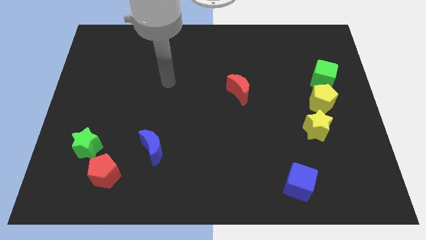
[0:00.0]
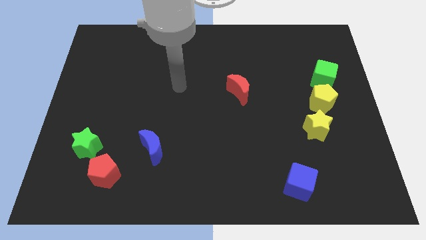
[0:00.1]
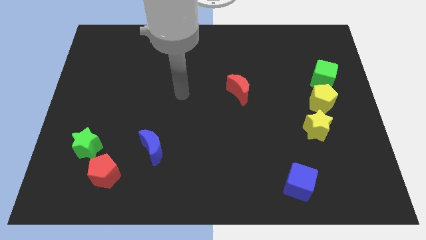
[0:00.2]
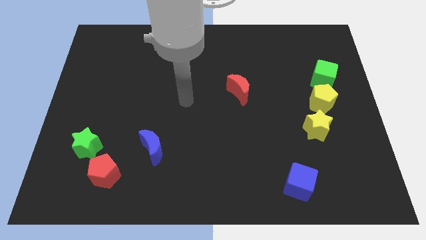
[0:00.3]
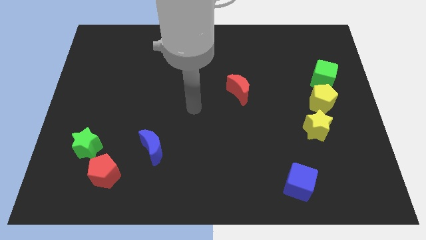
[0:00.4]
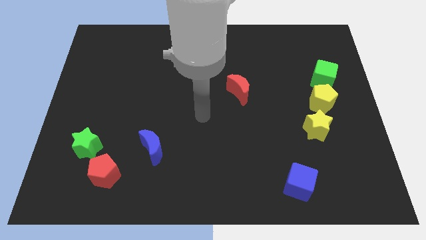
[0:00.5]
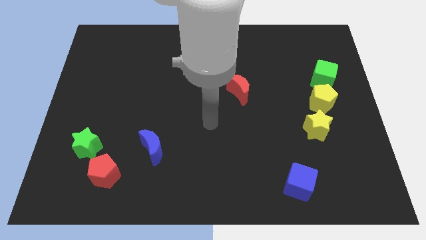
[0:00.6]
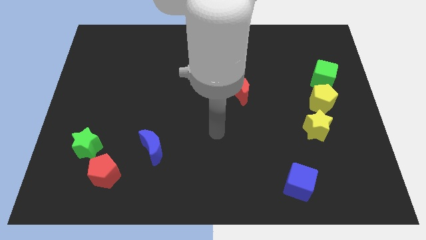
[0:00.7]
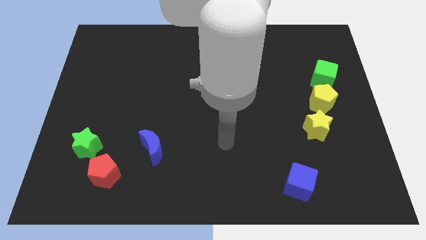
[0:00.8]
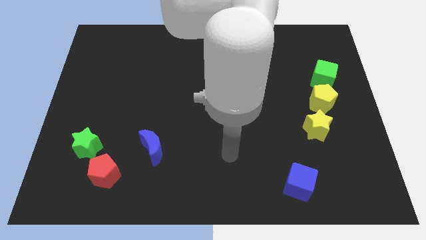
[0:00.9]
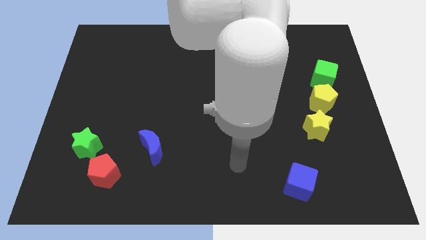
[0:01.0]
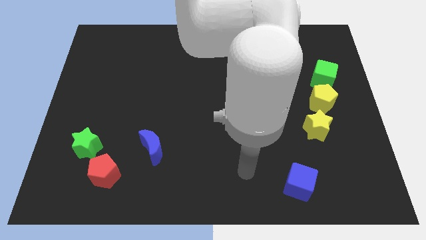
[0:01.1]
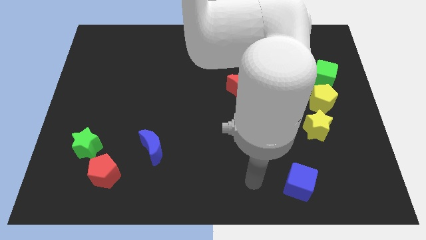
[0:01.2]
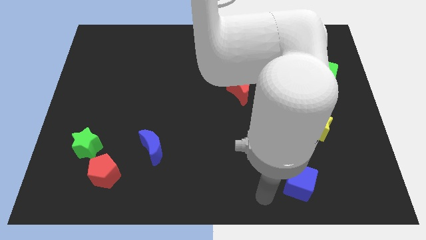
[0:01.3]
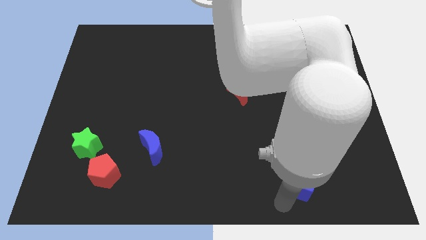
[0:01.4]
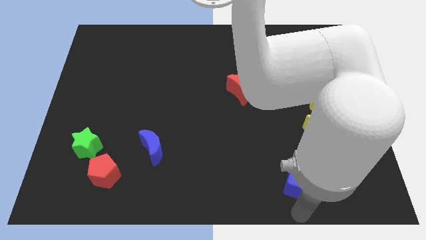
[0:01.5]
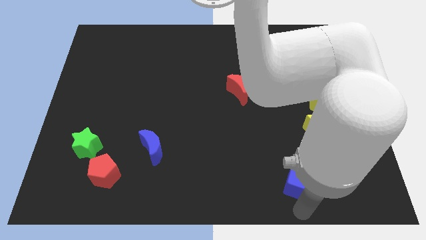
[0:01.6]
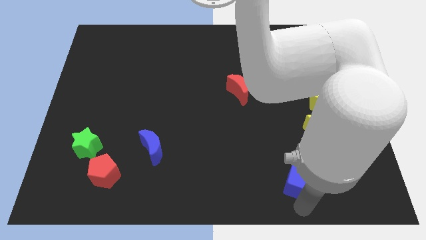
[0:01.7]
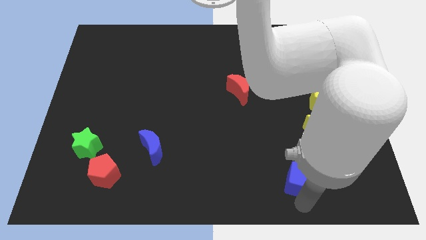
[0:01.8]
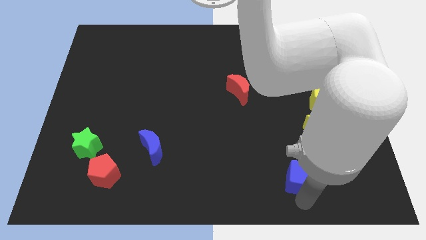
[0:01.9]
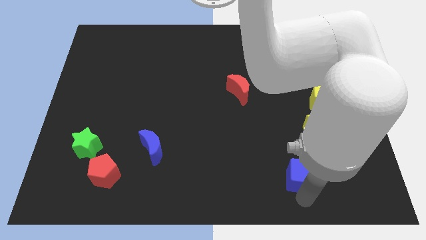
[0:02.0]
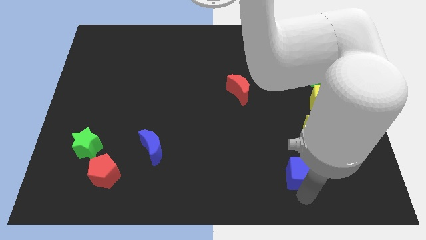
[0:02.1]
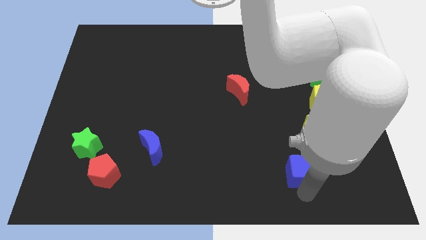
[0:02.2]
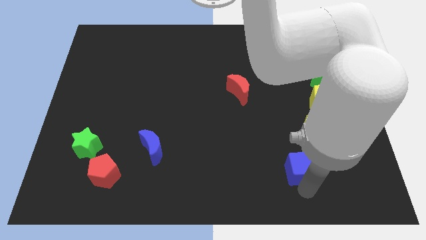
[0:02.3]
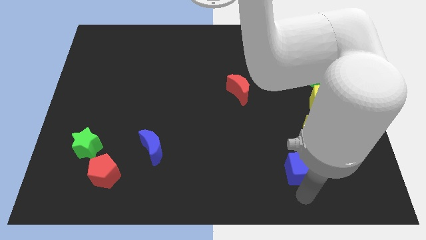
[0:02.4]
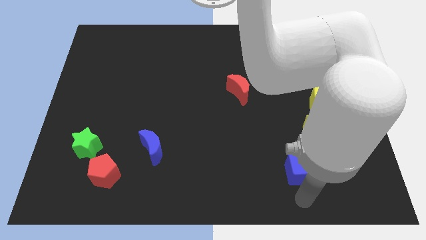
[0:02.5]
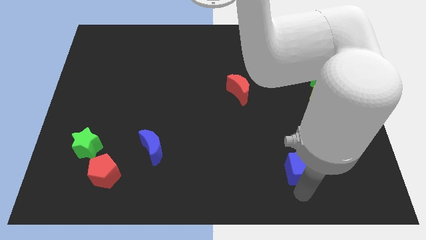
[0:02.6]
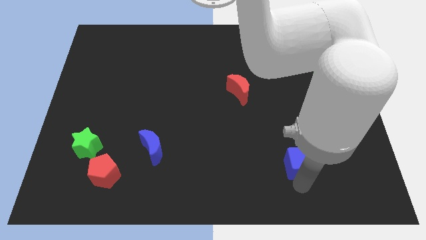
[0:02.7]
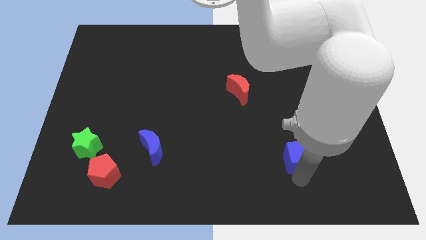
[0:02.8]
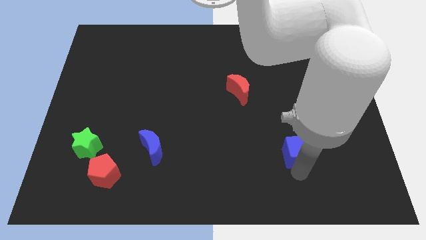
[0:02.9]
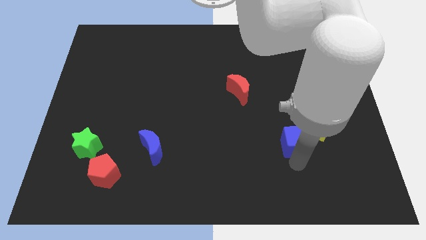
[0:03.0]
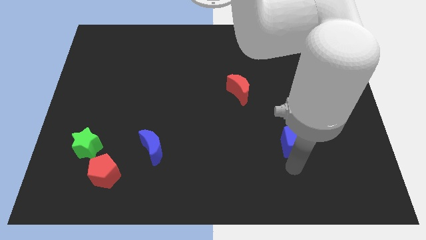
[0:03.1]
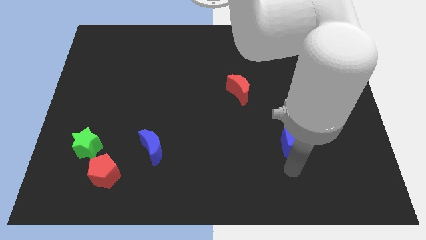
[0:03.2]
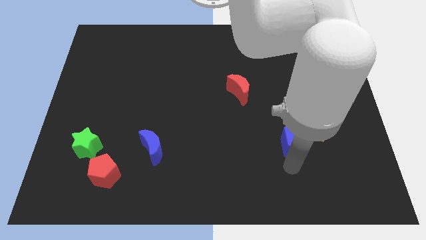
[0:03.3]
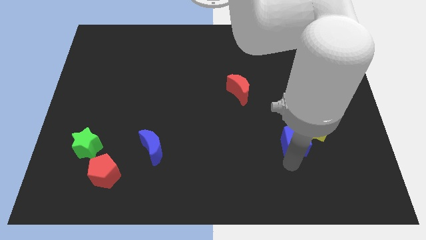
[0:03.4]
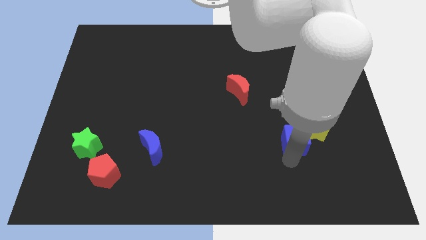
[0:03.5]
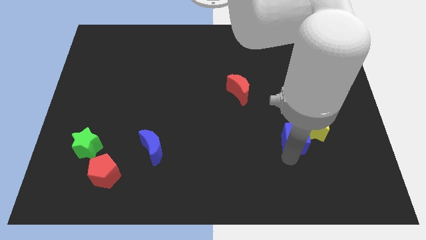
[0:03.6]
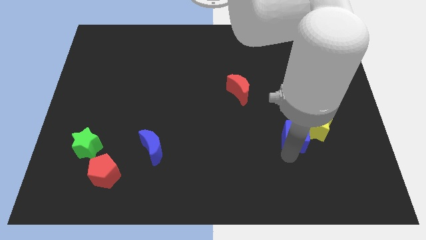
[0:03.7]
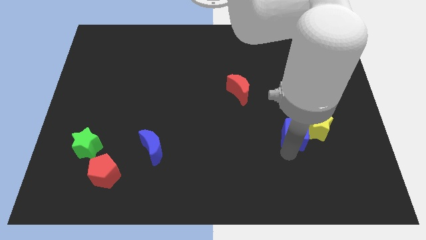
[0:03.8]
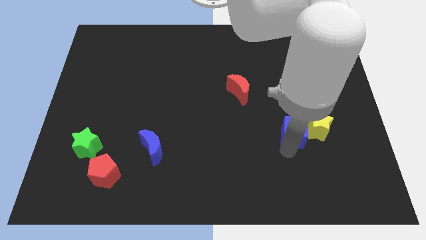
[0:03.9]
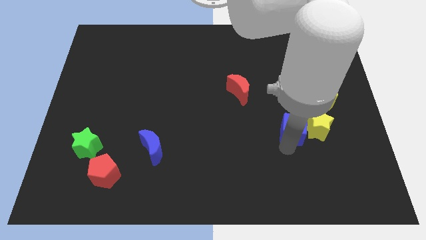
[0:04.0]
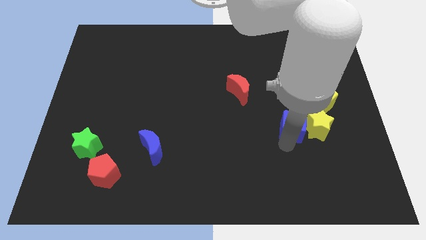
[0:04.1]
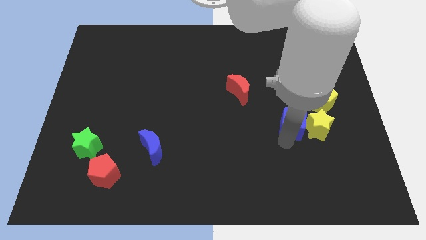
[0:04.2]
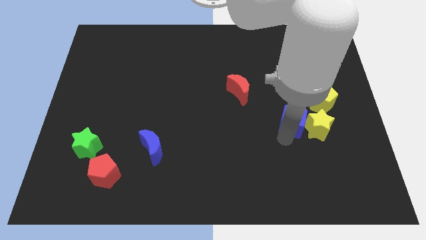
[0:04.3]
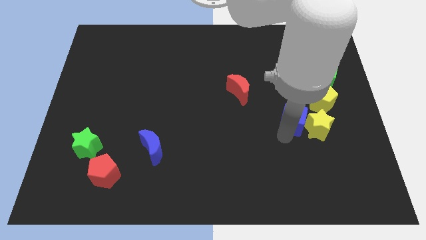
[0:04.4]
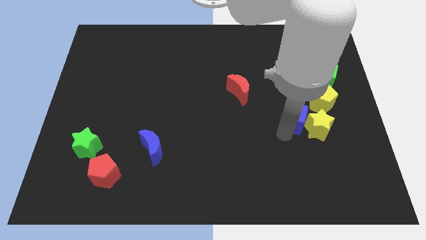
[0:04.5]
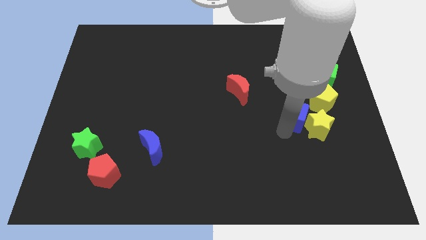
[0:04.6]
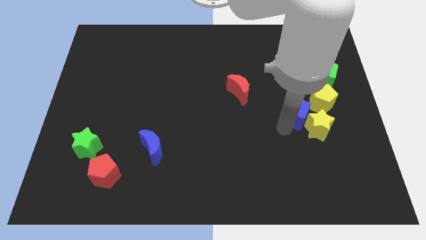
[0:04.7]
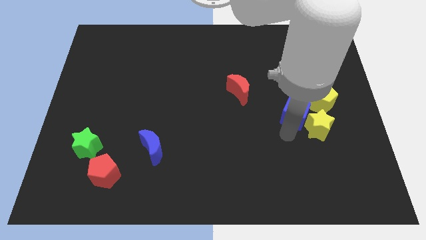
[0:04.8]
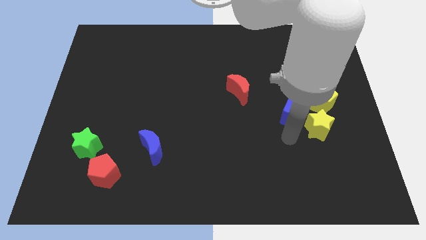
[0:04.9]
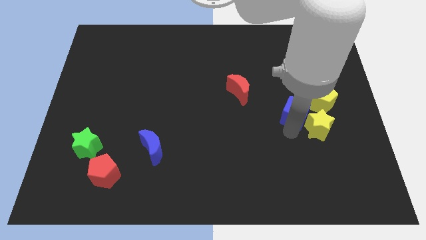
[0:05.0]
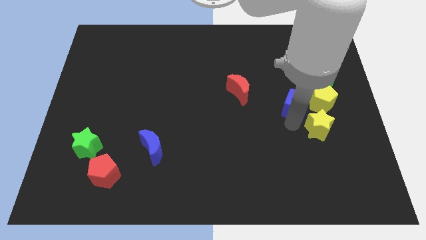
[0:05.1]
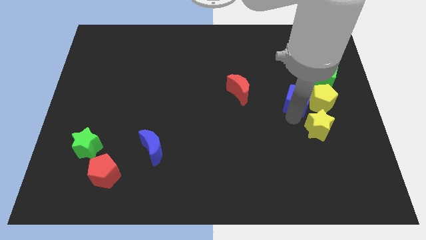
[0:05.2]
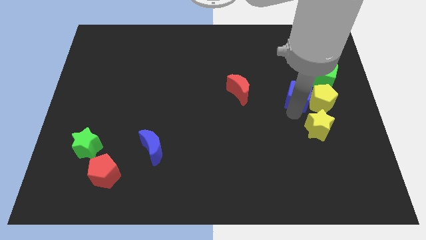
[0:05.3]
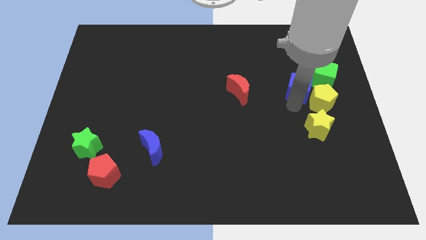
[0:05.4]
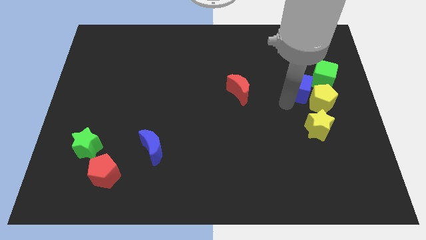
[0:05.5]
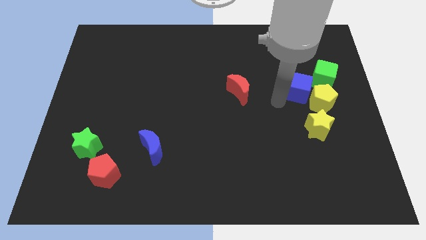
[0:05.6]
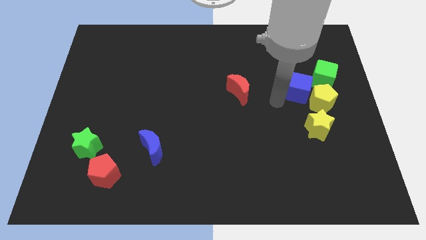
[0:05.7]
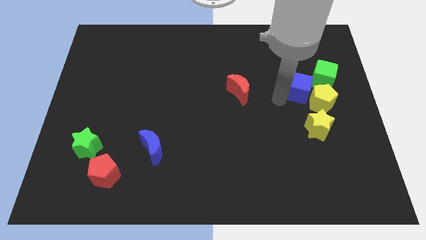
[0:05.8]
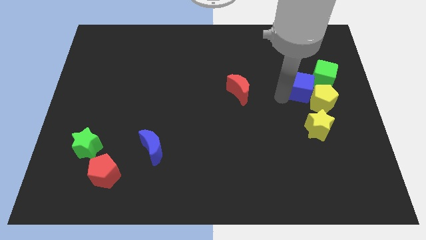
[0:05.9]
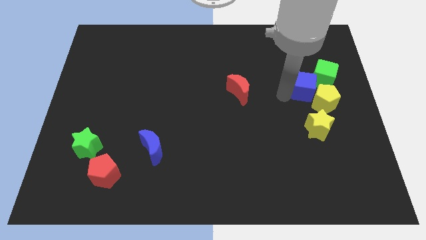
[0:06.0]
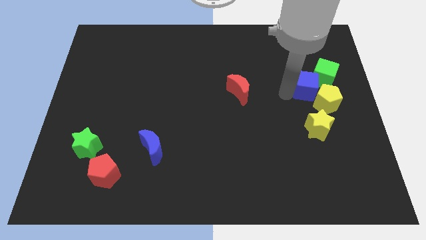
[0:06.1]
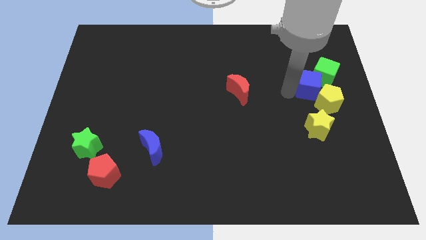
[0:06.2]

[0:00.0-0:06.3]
slide the blue cube towards the green cube

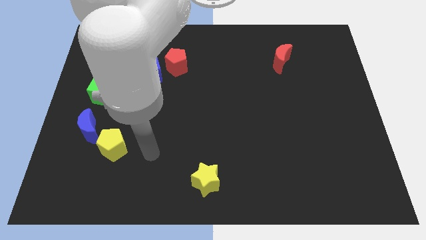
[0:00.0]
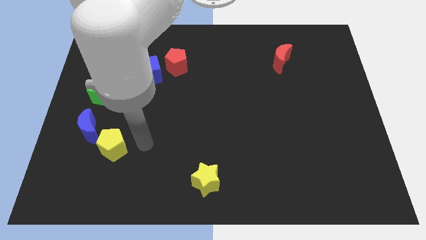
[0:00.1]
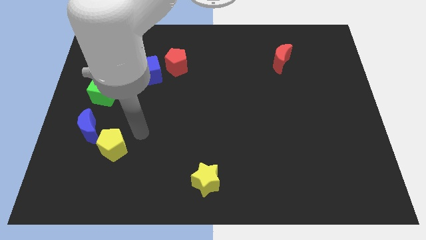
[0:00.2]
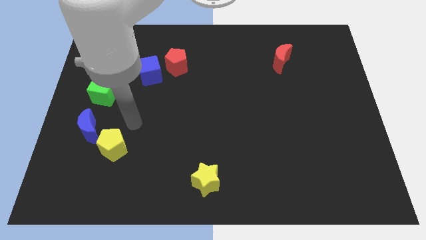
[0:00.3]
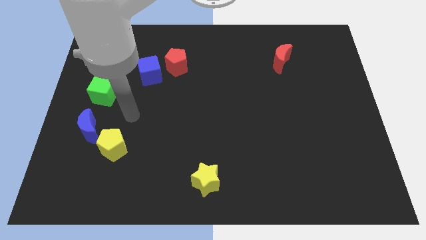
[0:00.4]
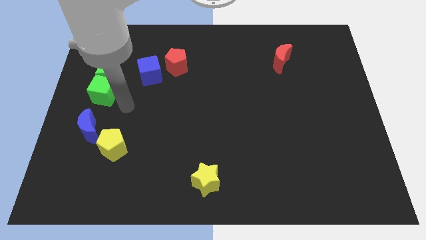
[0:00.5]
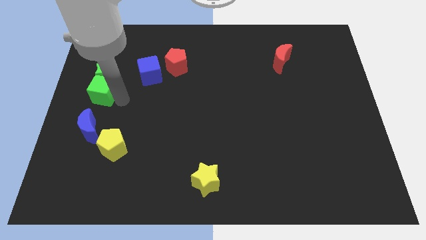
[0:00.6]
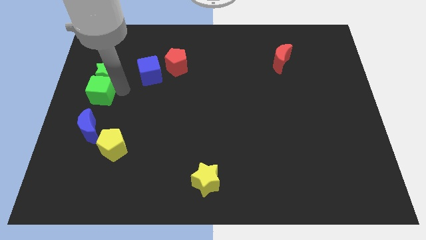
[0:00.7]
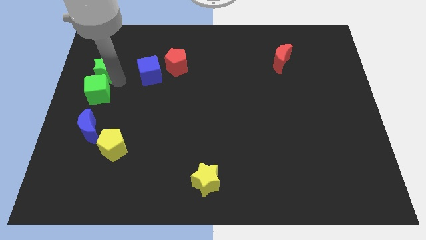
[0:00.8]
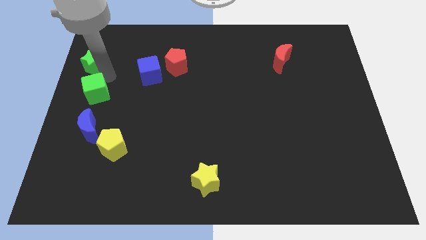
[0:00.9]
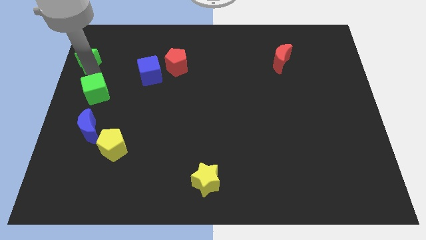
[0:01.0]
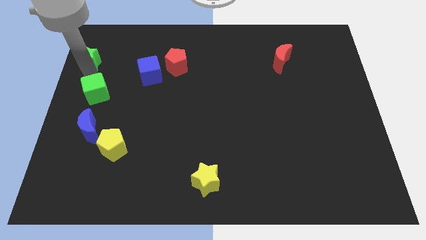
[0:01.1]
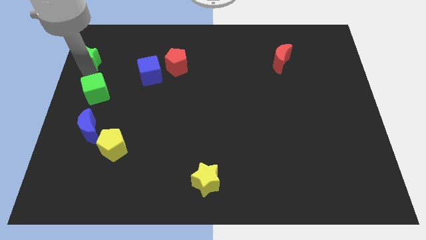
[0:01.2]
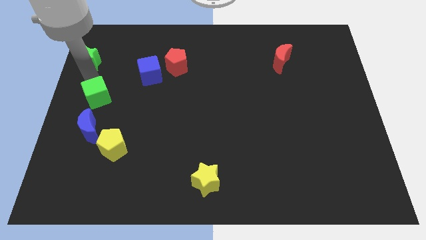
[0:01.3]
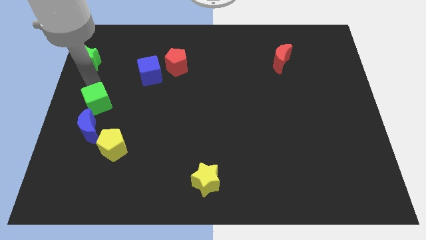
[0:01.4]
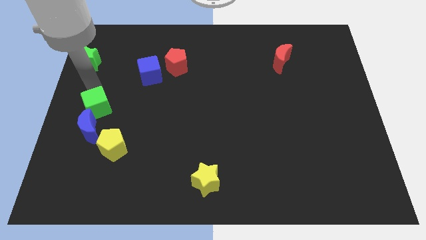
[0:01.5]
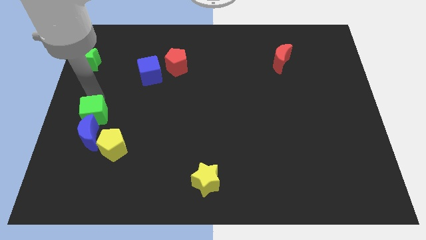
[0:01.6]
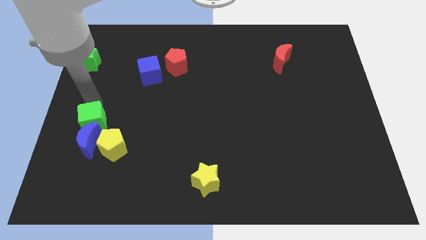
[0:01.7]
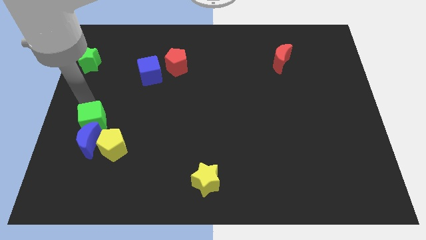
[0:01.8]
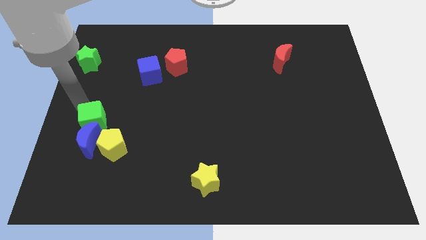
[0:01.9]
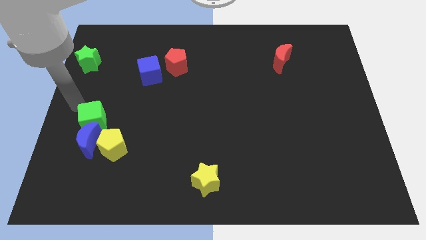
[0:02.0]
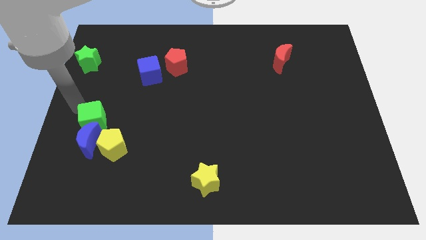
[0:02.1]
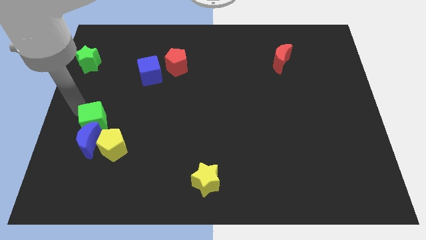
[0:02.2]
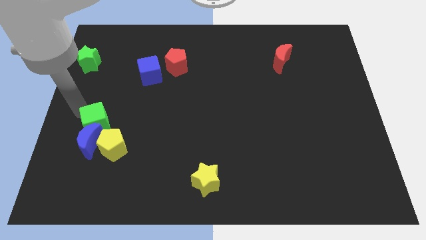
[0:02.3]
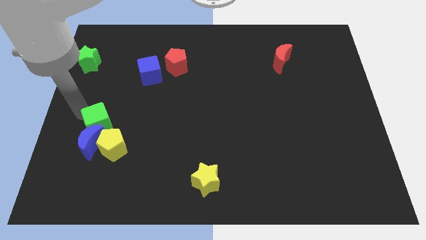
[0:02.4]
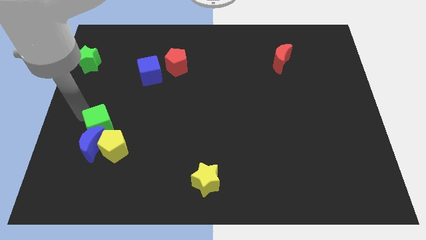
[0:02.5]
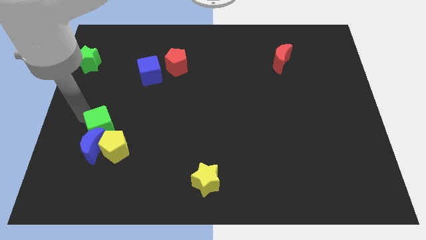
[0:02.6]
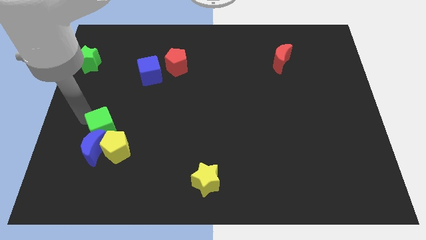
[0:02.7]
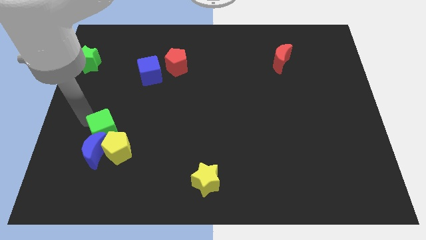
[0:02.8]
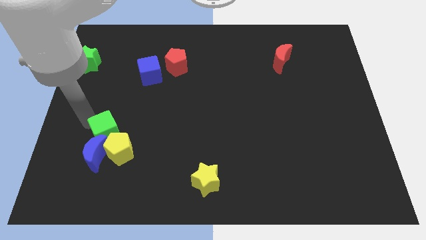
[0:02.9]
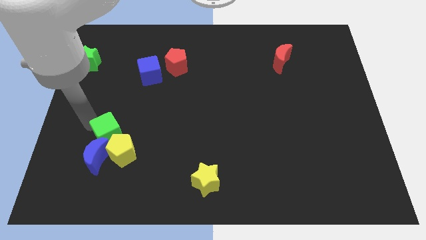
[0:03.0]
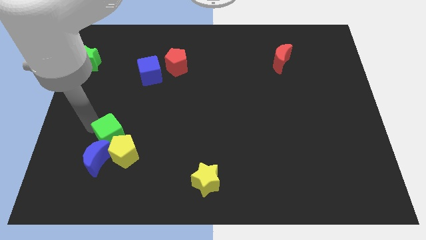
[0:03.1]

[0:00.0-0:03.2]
move the green cube towards the yellow pentagon
